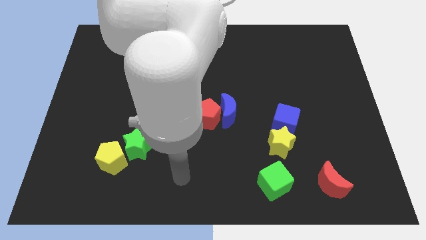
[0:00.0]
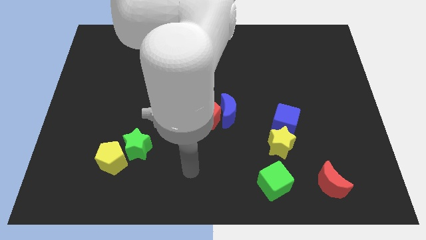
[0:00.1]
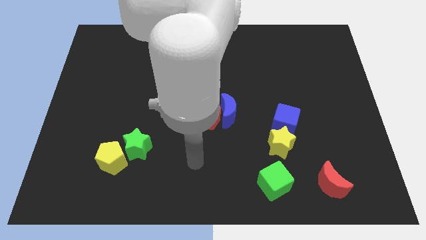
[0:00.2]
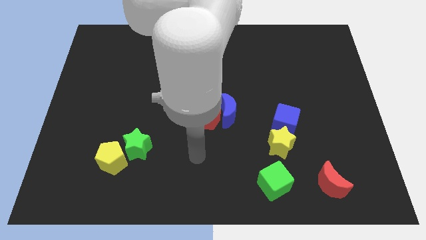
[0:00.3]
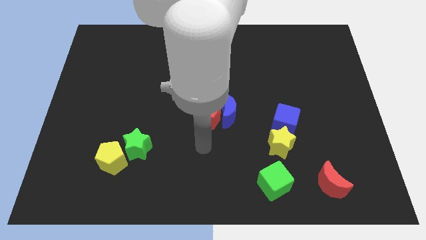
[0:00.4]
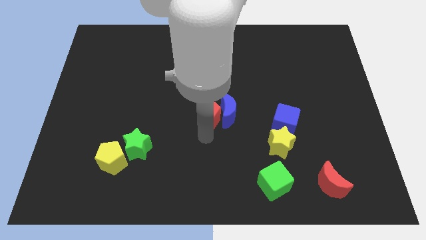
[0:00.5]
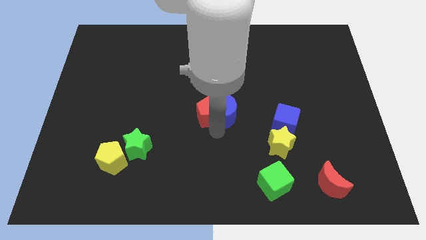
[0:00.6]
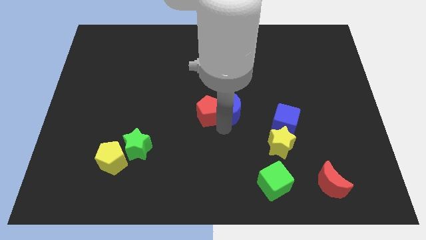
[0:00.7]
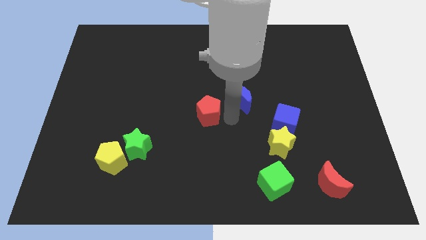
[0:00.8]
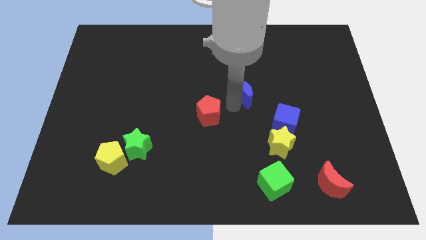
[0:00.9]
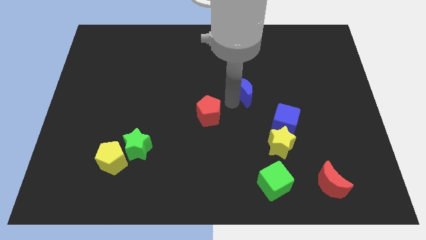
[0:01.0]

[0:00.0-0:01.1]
move the red pentagon away from the blue moon

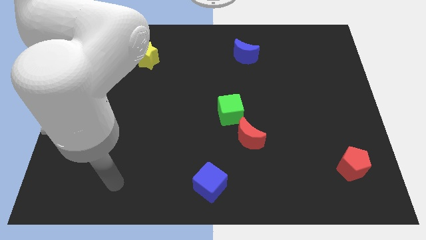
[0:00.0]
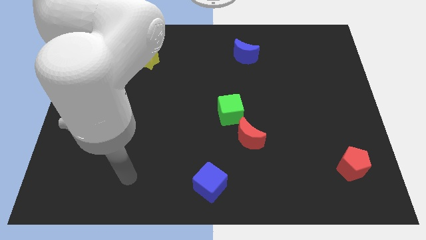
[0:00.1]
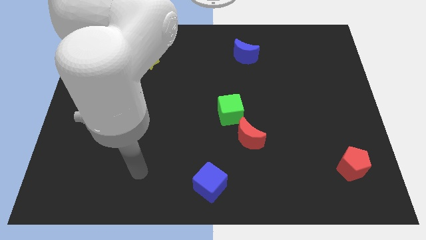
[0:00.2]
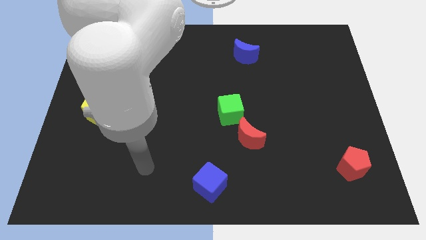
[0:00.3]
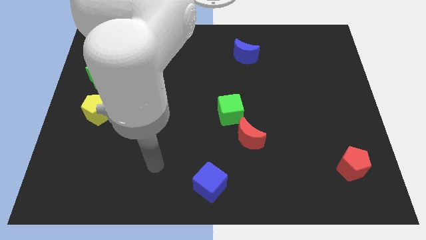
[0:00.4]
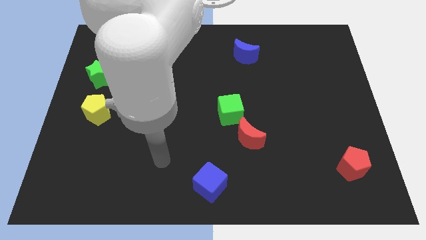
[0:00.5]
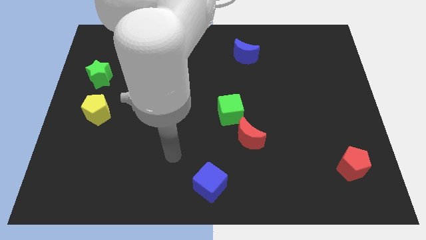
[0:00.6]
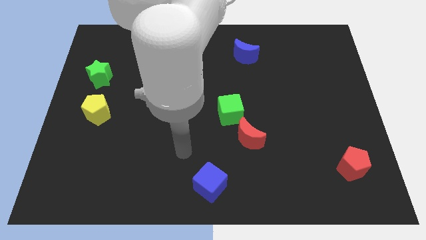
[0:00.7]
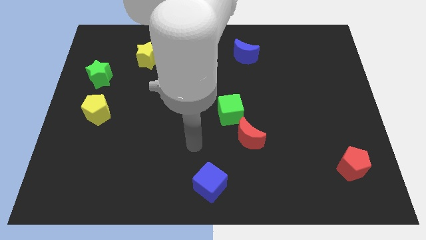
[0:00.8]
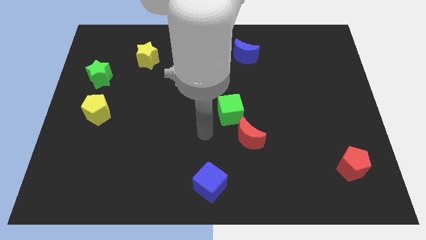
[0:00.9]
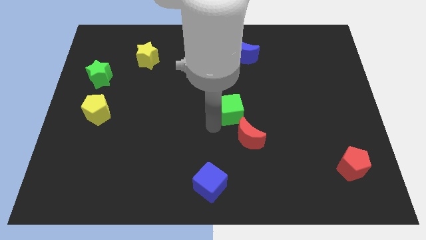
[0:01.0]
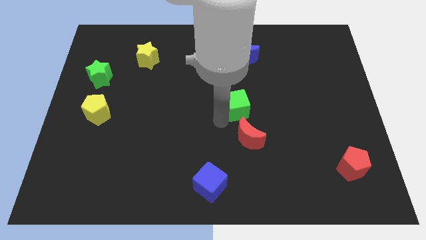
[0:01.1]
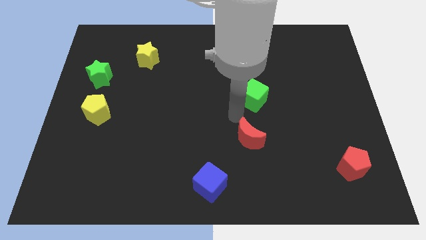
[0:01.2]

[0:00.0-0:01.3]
move the red moon away from the green cube

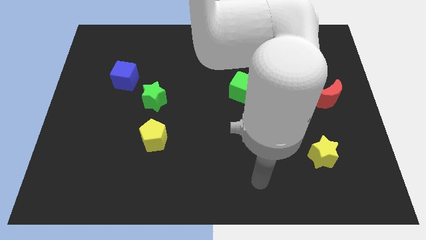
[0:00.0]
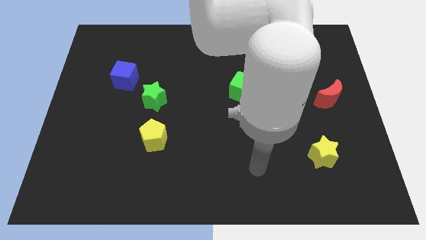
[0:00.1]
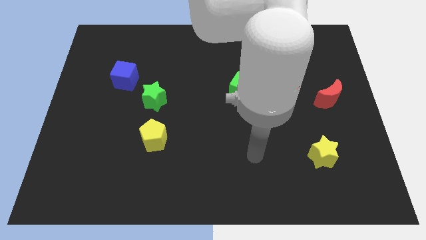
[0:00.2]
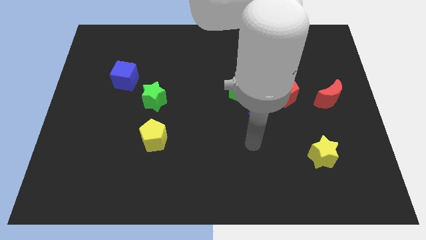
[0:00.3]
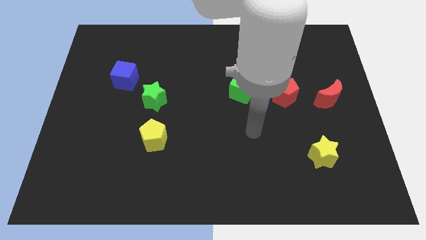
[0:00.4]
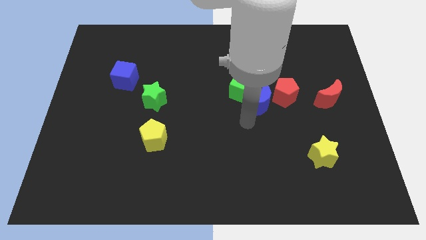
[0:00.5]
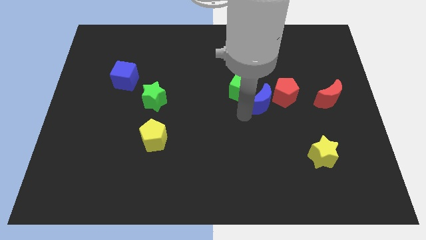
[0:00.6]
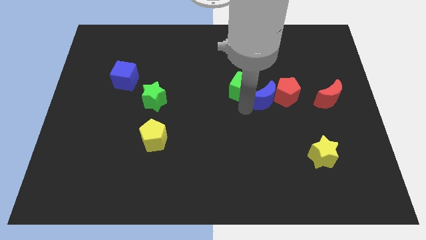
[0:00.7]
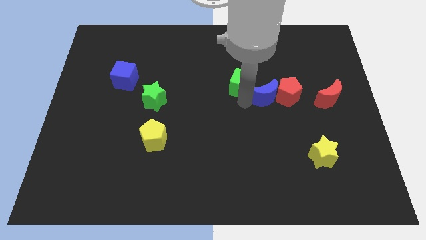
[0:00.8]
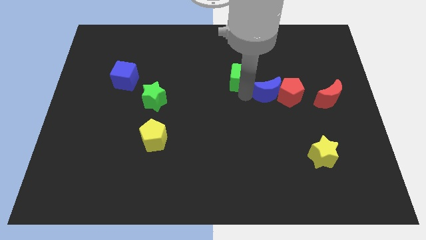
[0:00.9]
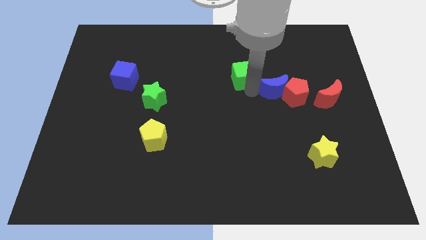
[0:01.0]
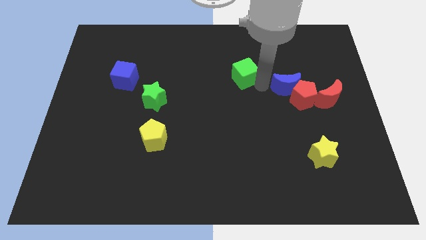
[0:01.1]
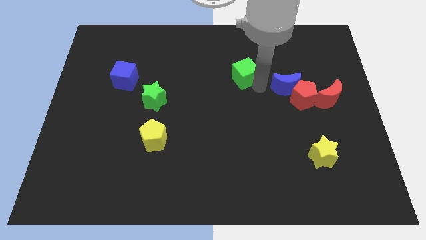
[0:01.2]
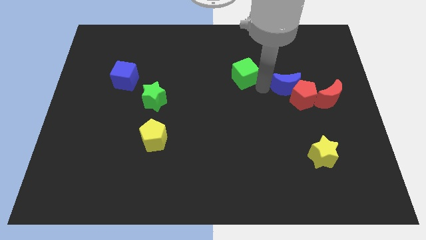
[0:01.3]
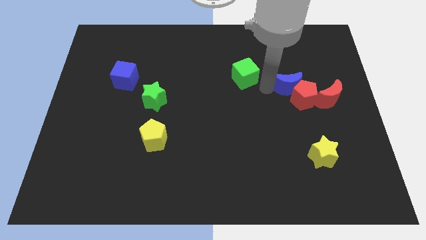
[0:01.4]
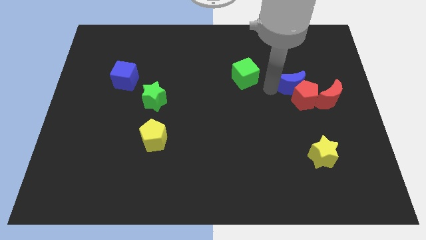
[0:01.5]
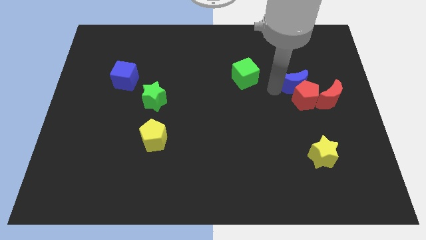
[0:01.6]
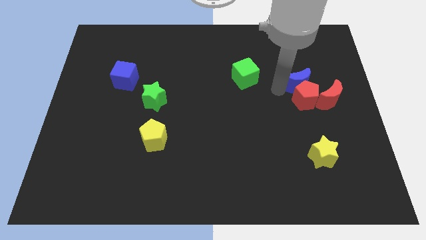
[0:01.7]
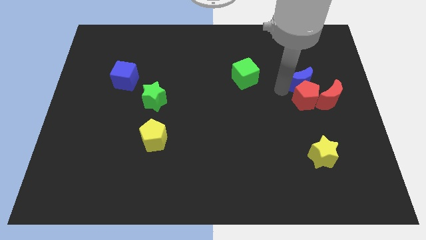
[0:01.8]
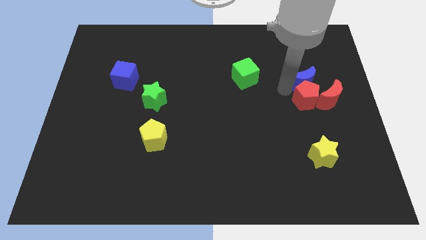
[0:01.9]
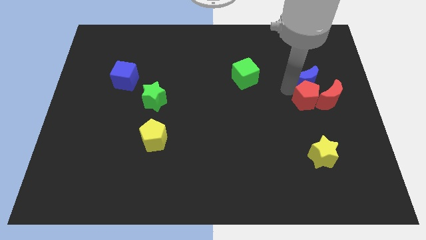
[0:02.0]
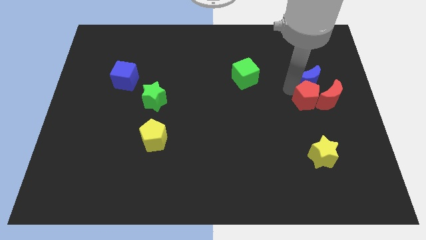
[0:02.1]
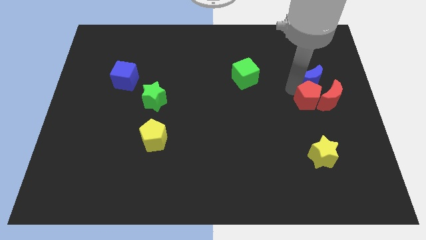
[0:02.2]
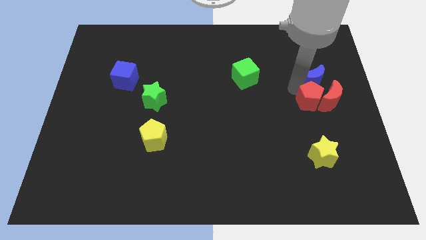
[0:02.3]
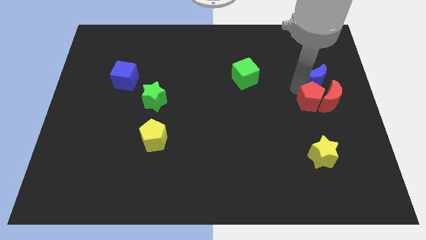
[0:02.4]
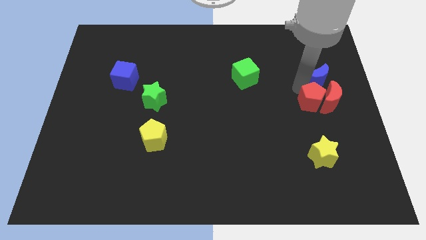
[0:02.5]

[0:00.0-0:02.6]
pull the blue moon apart from the green cube and red pentagon

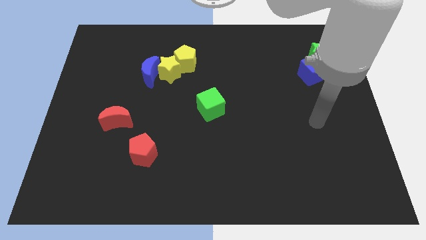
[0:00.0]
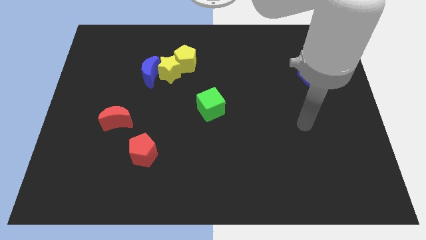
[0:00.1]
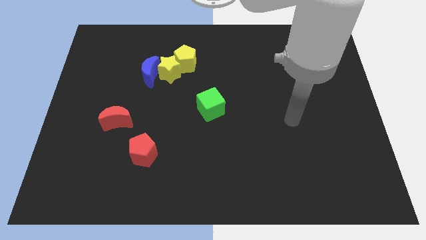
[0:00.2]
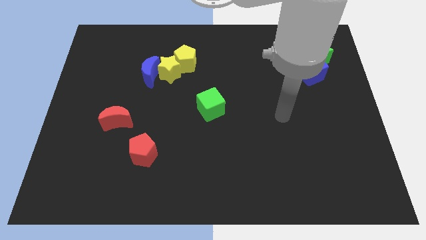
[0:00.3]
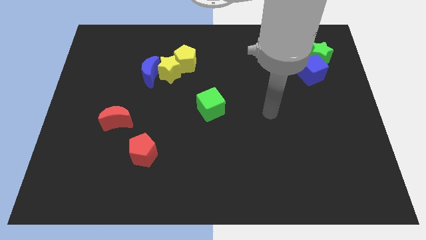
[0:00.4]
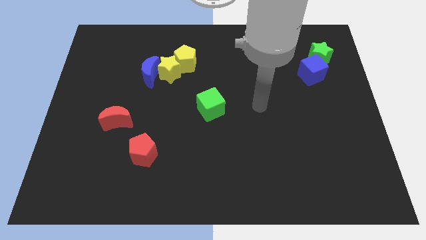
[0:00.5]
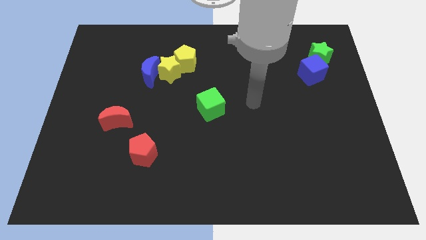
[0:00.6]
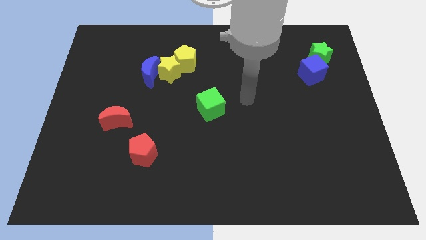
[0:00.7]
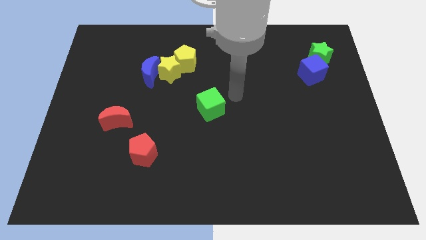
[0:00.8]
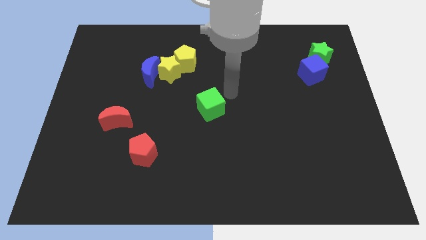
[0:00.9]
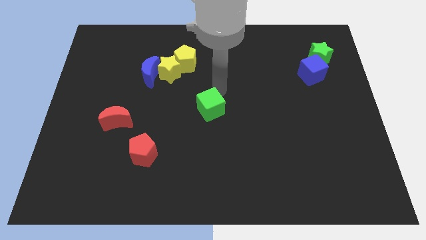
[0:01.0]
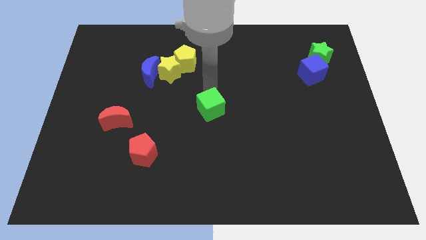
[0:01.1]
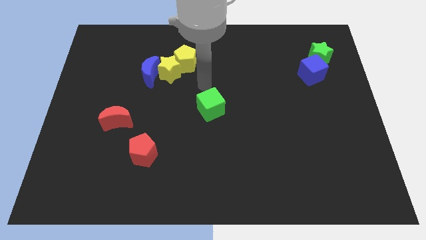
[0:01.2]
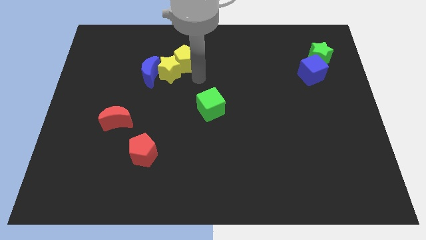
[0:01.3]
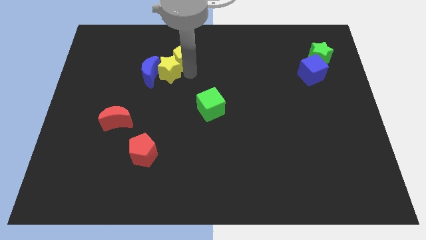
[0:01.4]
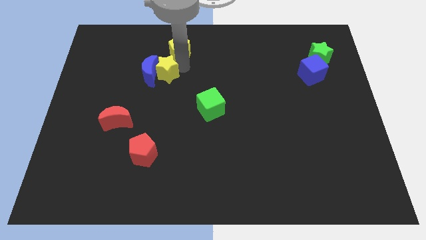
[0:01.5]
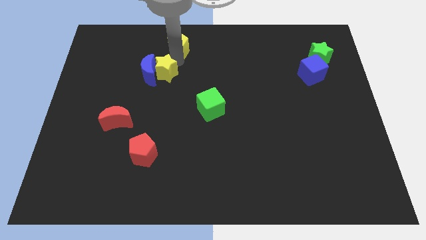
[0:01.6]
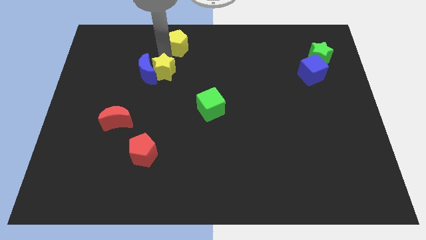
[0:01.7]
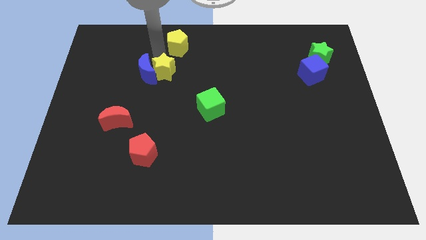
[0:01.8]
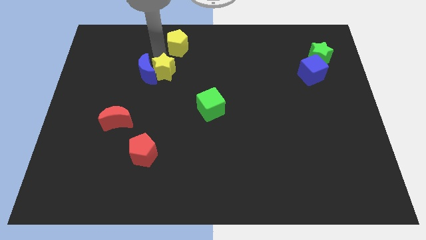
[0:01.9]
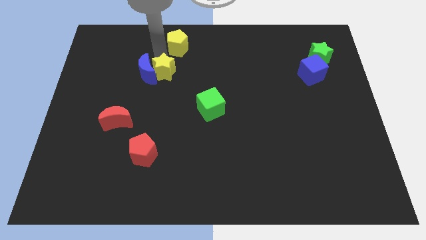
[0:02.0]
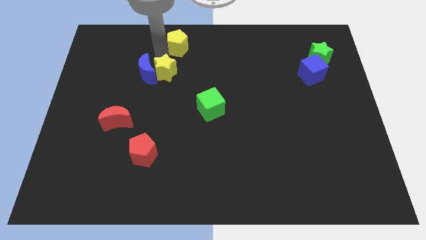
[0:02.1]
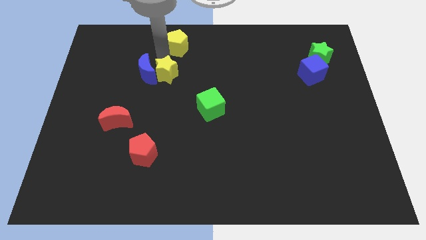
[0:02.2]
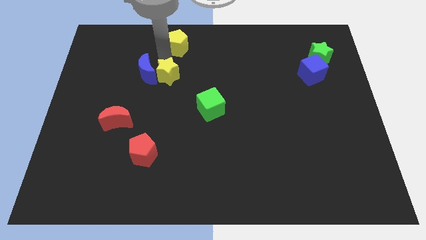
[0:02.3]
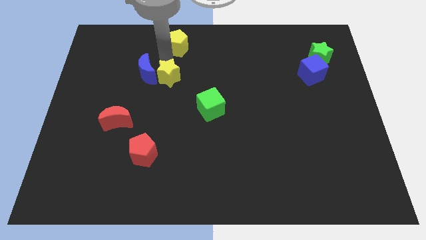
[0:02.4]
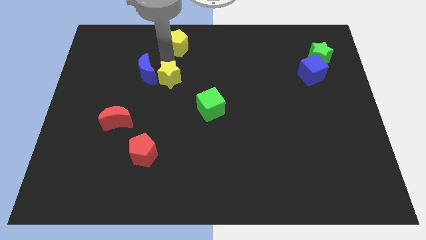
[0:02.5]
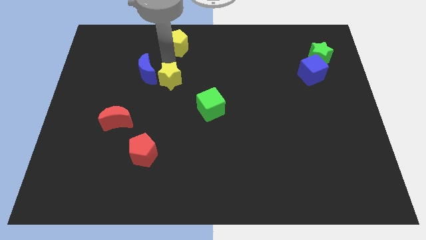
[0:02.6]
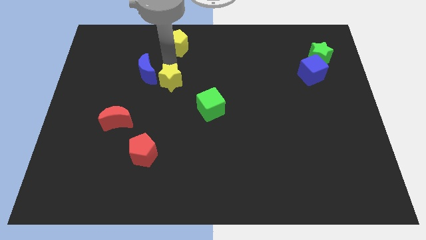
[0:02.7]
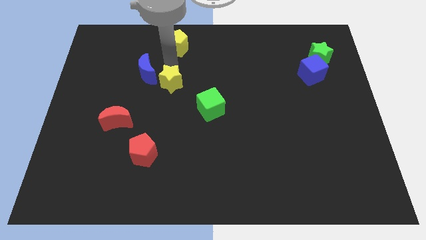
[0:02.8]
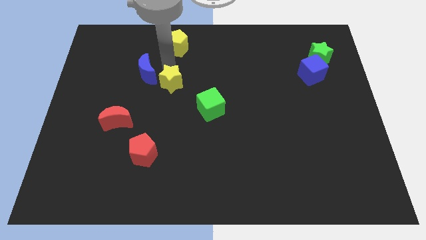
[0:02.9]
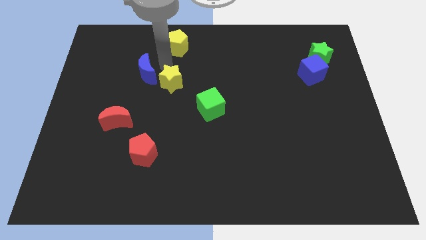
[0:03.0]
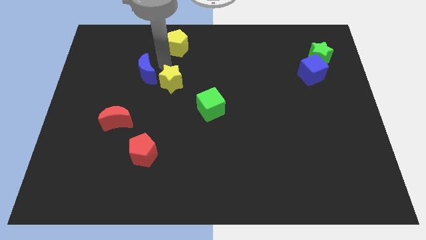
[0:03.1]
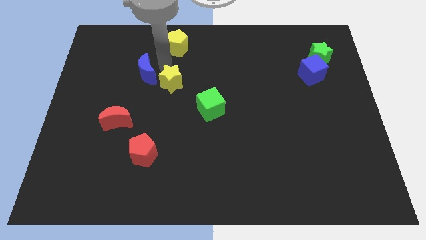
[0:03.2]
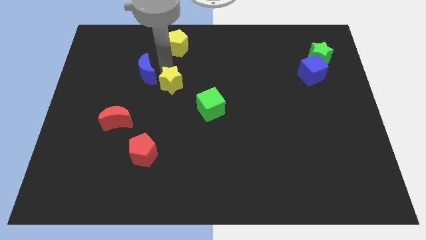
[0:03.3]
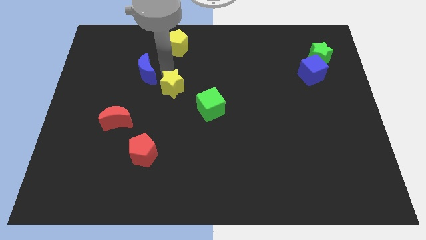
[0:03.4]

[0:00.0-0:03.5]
move the yellow star away from the blue moon and yellow pentagon

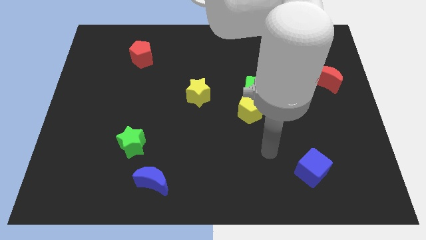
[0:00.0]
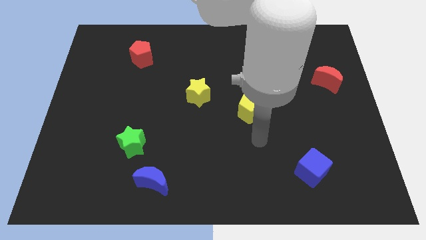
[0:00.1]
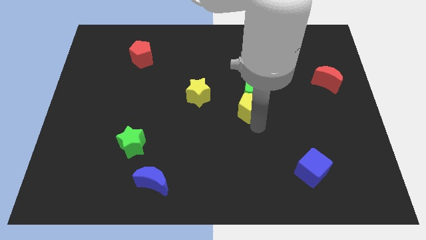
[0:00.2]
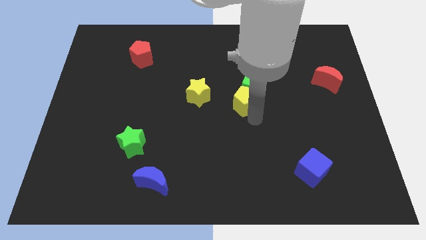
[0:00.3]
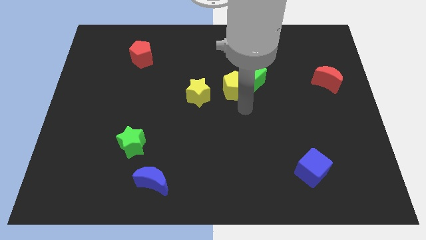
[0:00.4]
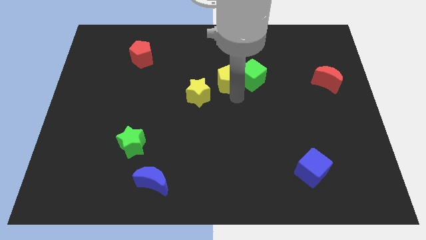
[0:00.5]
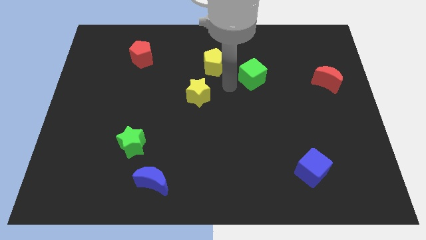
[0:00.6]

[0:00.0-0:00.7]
separate the green cube from the yellow pentagon

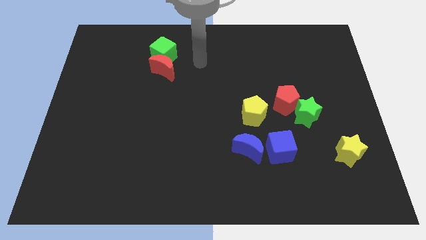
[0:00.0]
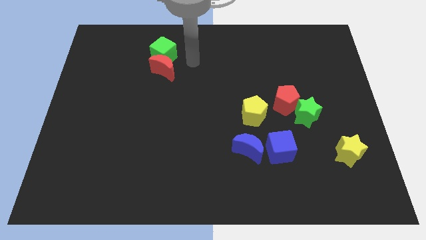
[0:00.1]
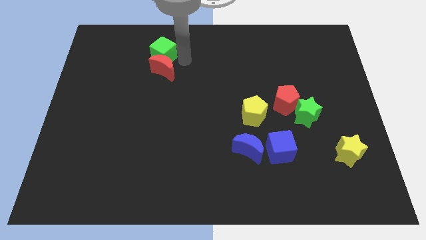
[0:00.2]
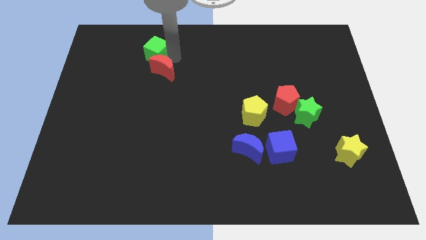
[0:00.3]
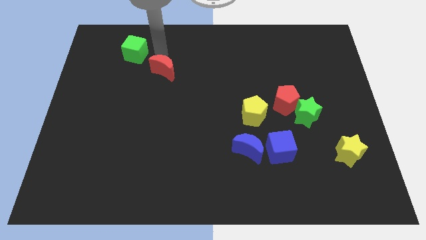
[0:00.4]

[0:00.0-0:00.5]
separate the red moon from the green cube
